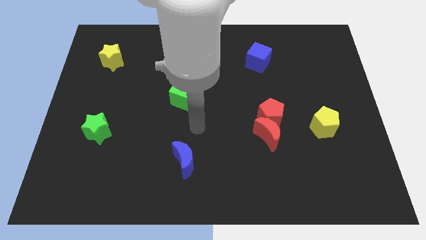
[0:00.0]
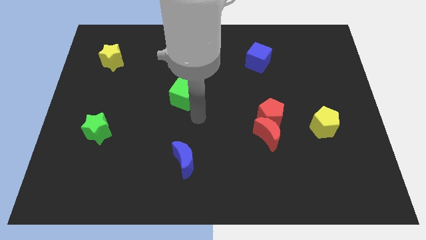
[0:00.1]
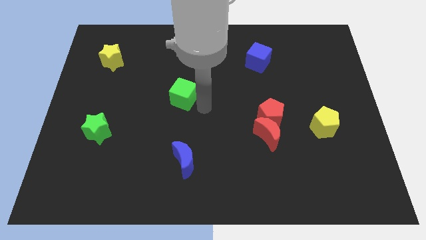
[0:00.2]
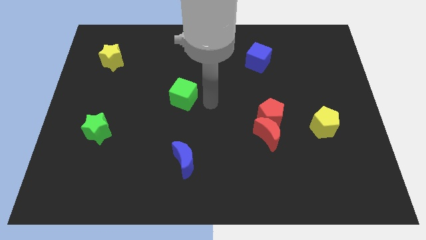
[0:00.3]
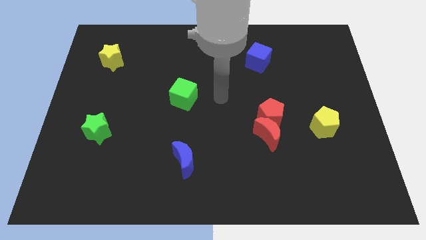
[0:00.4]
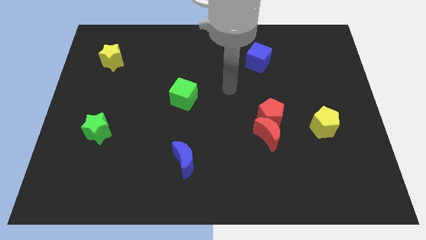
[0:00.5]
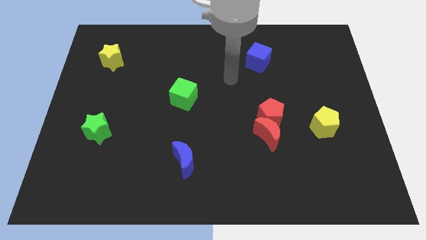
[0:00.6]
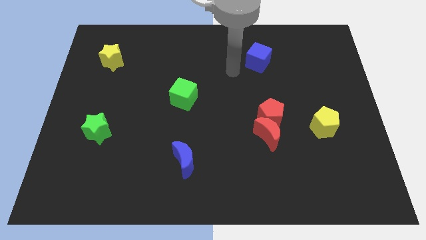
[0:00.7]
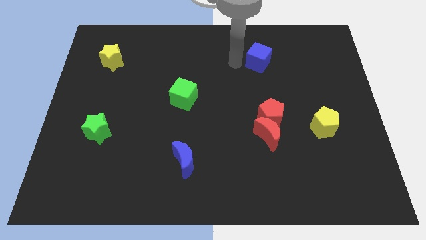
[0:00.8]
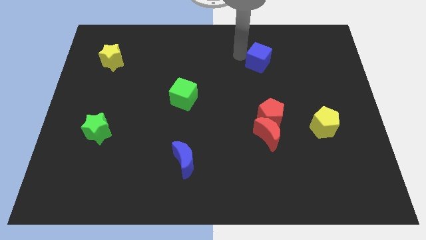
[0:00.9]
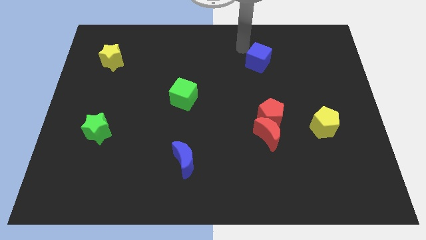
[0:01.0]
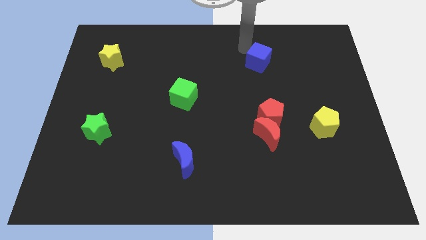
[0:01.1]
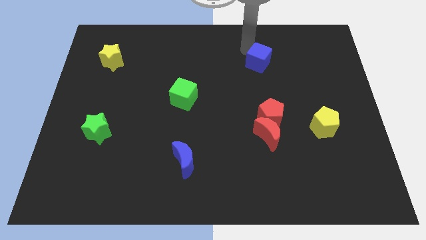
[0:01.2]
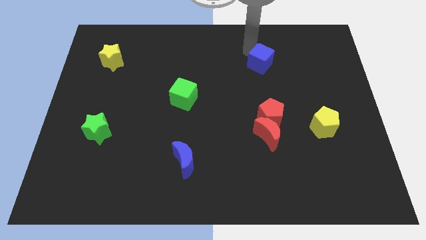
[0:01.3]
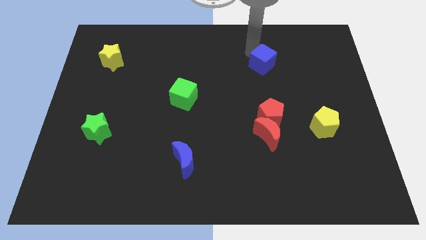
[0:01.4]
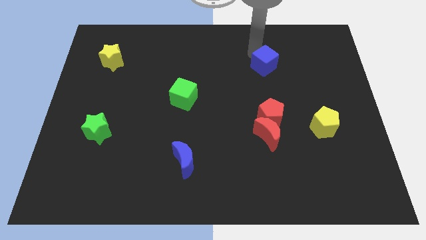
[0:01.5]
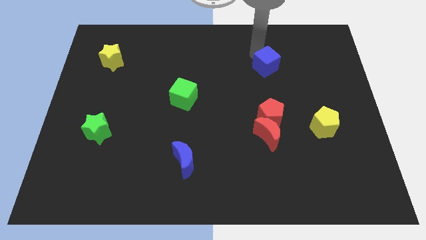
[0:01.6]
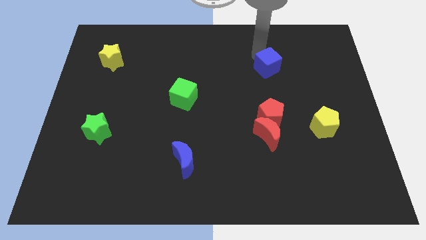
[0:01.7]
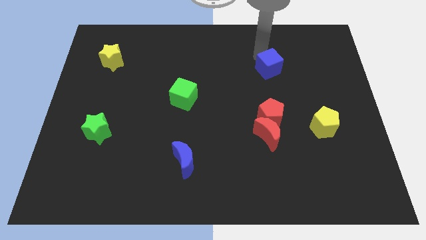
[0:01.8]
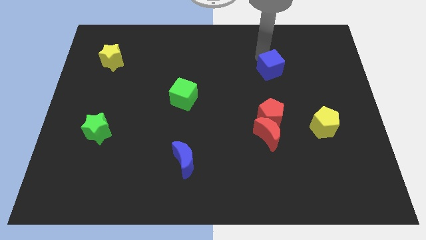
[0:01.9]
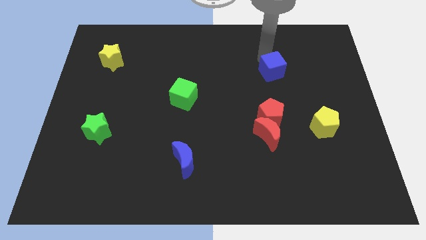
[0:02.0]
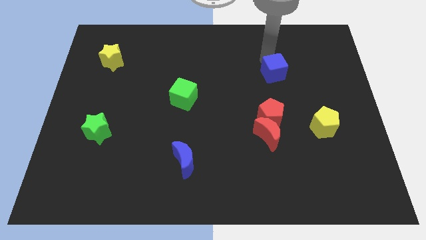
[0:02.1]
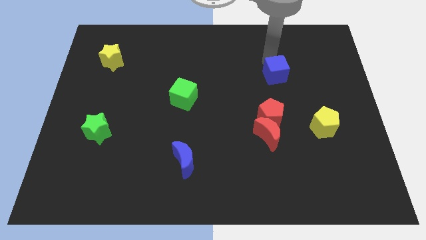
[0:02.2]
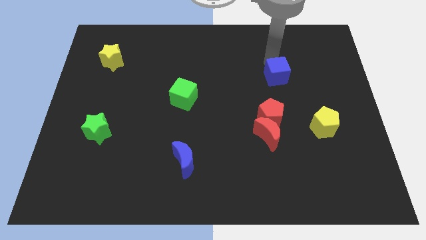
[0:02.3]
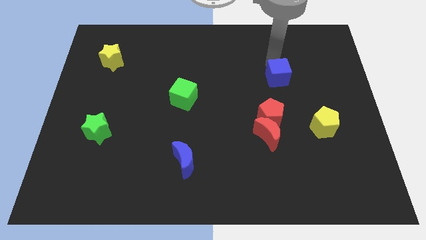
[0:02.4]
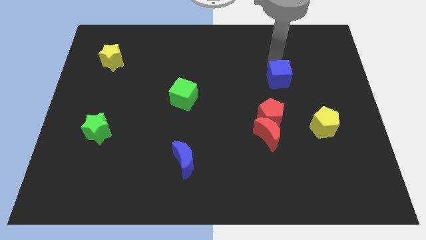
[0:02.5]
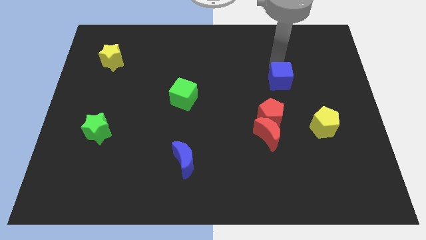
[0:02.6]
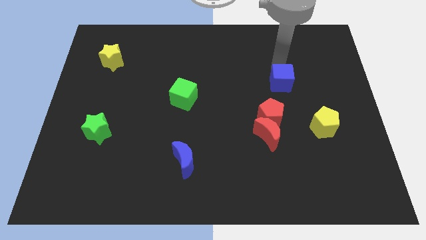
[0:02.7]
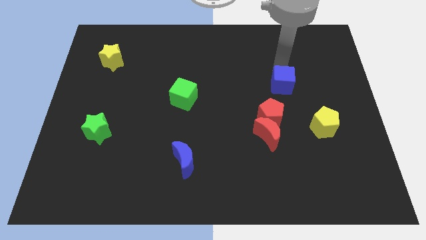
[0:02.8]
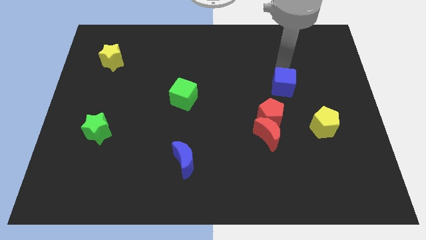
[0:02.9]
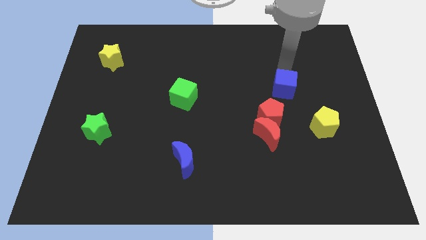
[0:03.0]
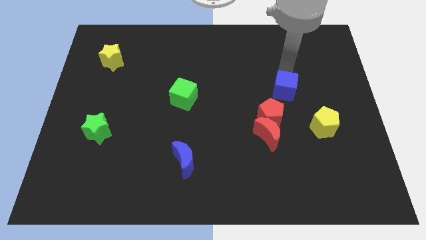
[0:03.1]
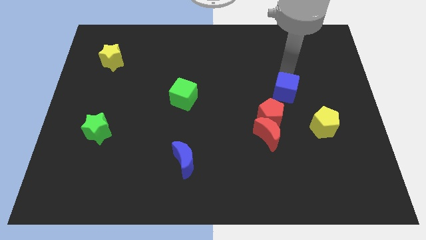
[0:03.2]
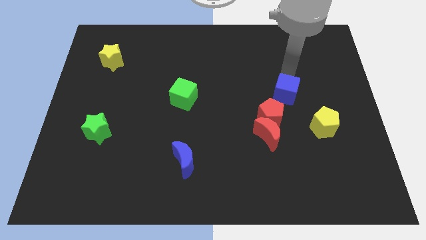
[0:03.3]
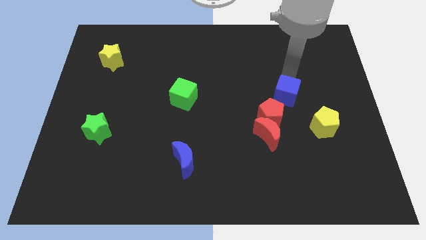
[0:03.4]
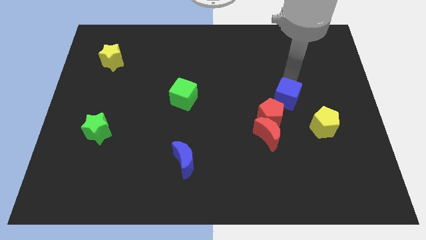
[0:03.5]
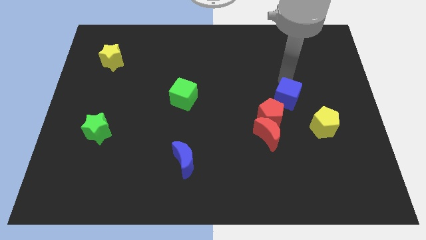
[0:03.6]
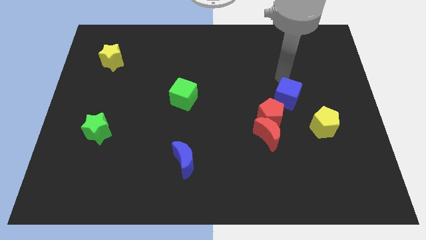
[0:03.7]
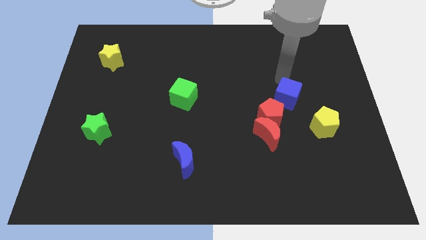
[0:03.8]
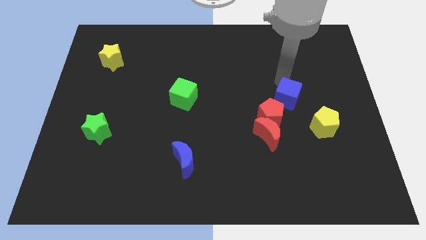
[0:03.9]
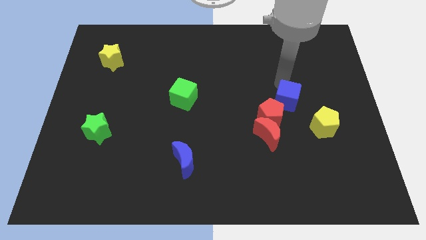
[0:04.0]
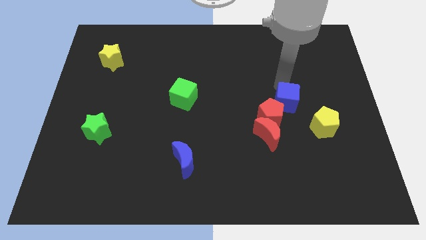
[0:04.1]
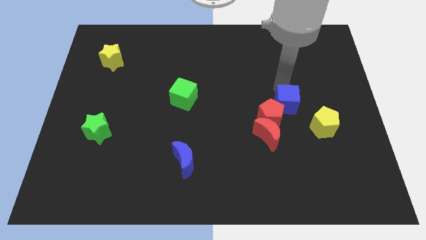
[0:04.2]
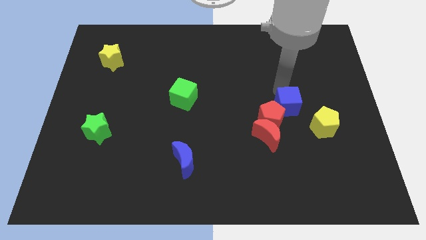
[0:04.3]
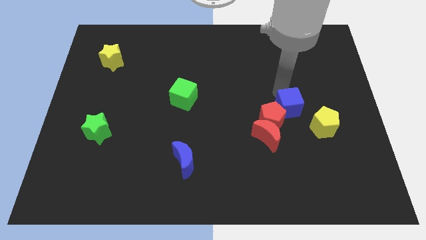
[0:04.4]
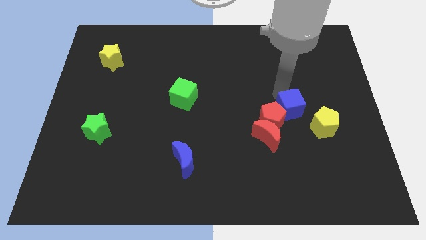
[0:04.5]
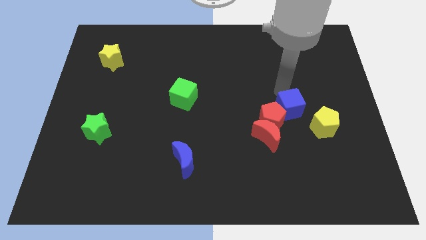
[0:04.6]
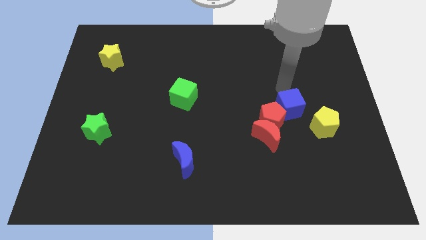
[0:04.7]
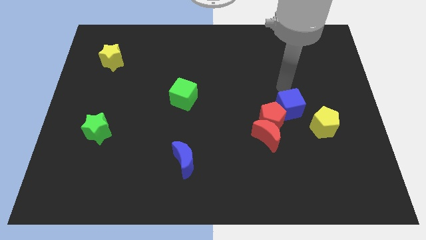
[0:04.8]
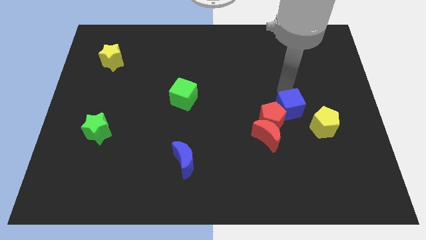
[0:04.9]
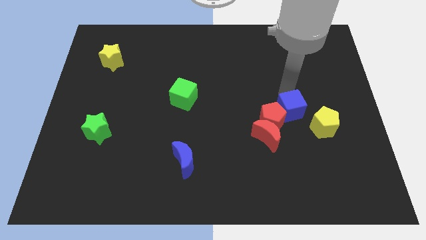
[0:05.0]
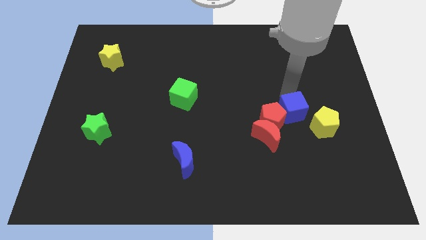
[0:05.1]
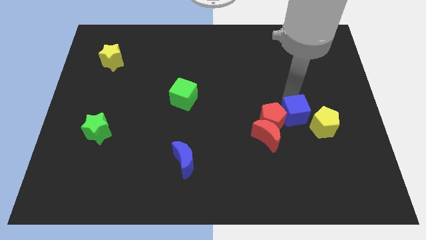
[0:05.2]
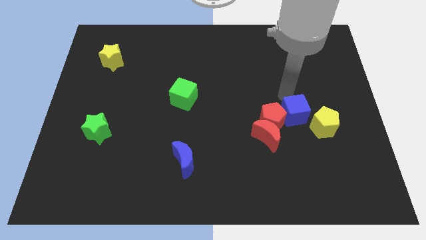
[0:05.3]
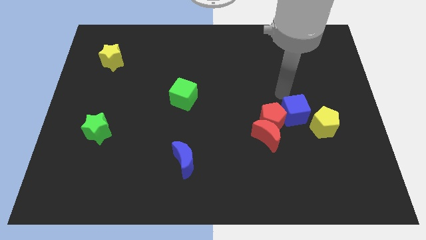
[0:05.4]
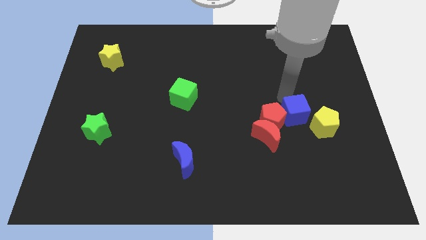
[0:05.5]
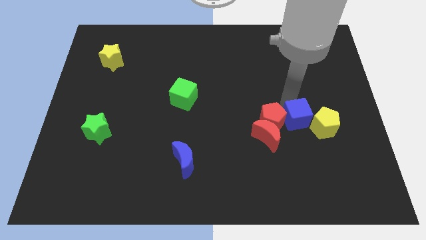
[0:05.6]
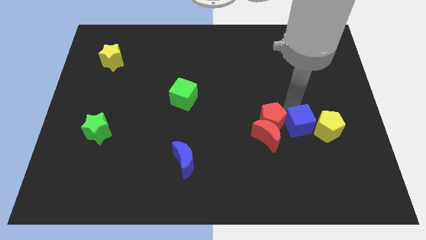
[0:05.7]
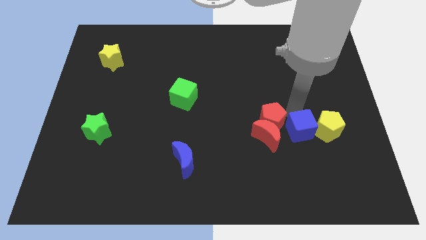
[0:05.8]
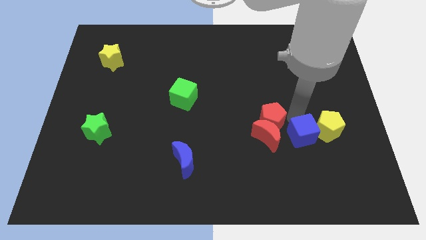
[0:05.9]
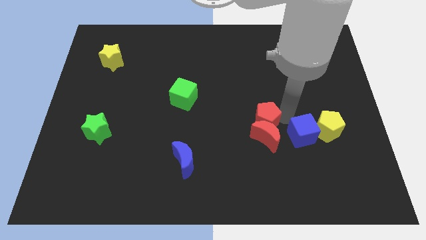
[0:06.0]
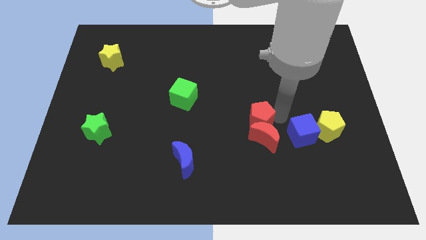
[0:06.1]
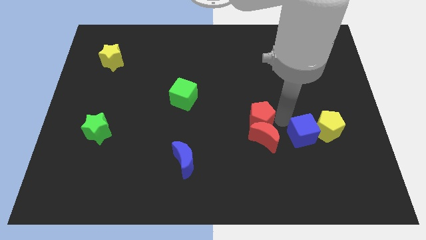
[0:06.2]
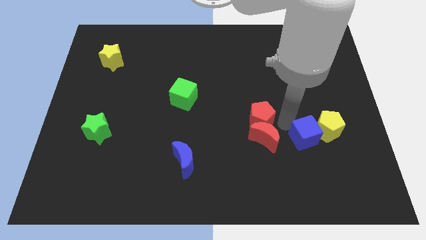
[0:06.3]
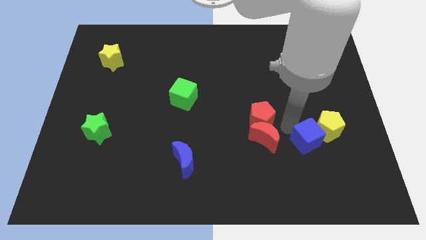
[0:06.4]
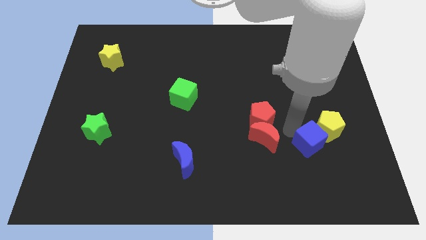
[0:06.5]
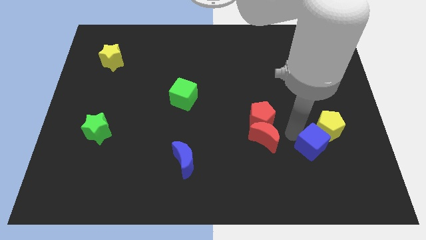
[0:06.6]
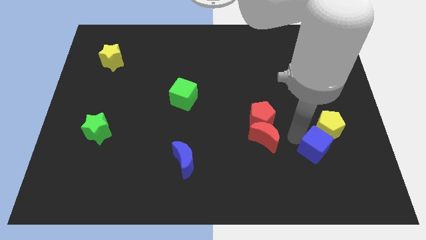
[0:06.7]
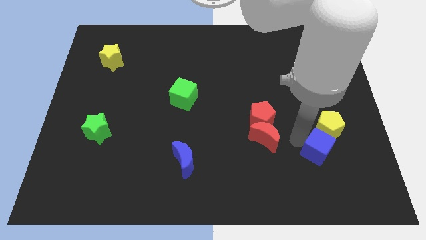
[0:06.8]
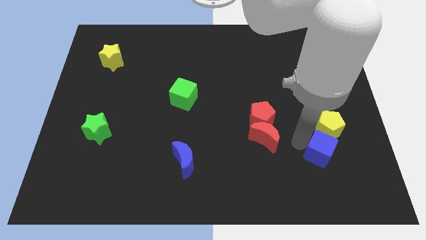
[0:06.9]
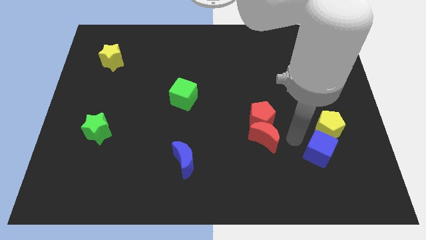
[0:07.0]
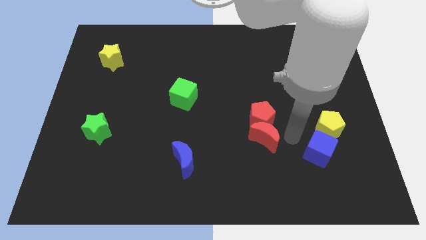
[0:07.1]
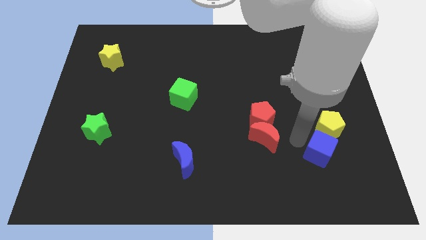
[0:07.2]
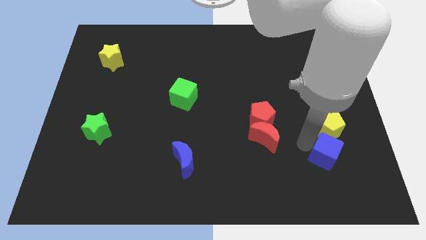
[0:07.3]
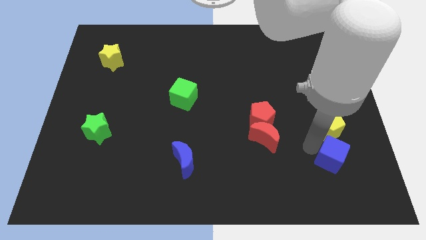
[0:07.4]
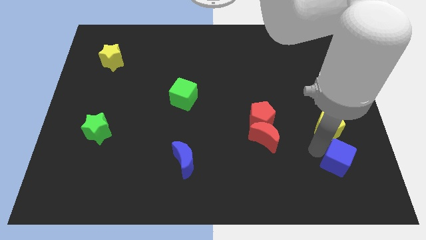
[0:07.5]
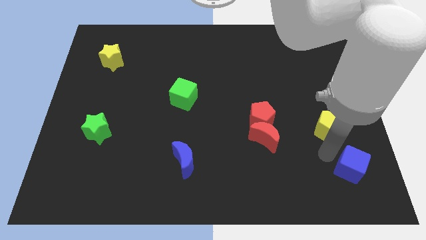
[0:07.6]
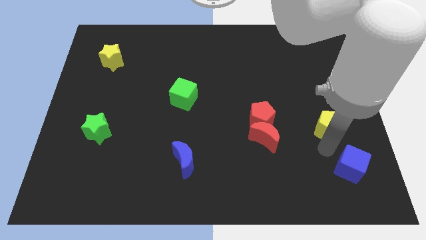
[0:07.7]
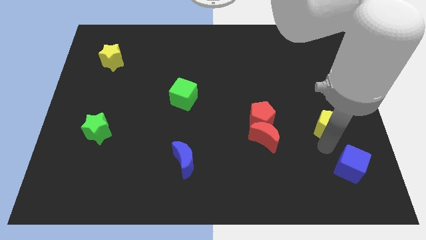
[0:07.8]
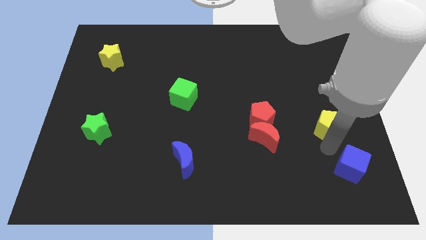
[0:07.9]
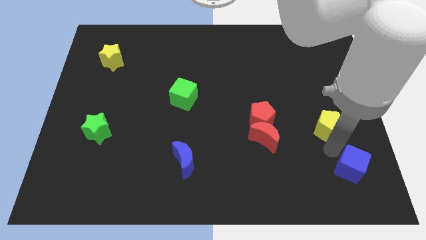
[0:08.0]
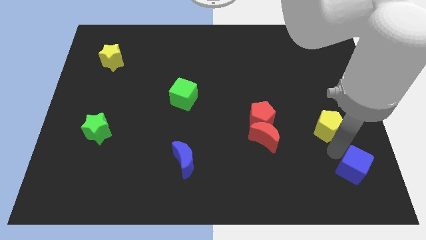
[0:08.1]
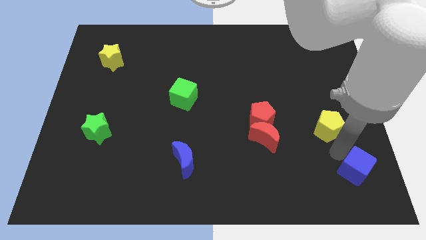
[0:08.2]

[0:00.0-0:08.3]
put the blue cube to the bottom right
